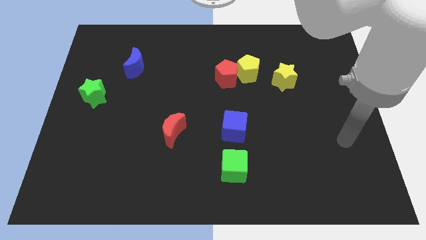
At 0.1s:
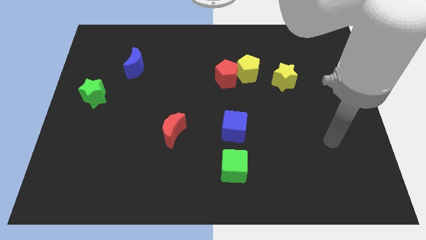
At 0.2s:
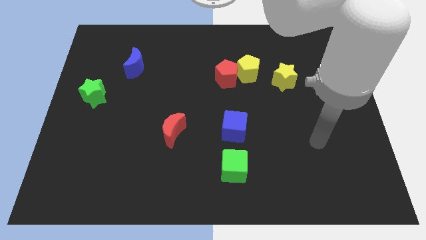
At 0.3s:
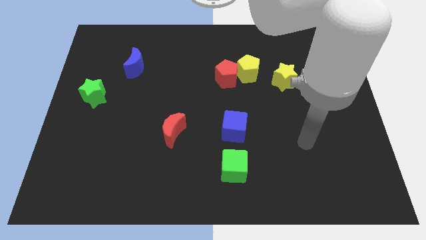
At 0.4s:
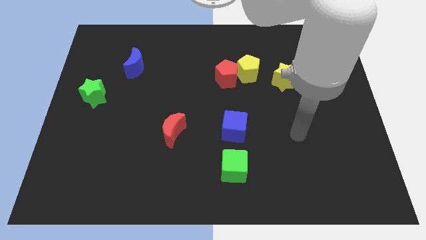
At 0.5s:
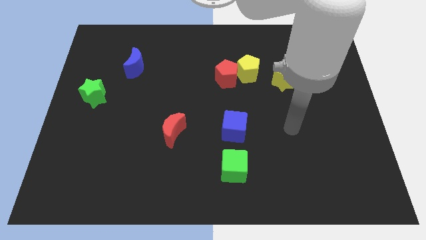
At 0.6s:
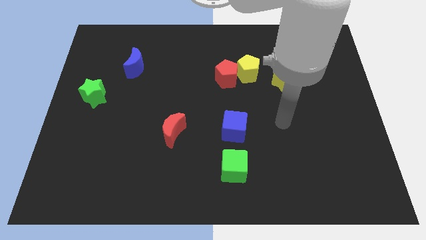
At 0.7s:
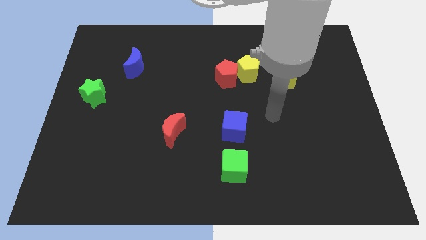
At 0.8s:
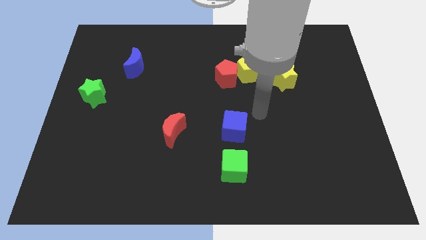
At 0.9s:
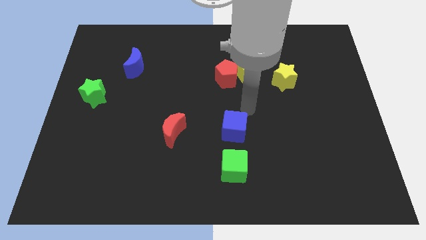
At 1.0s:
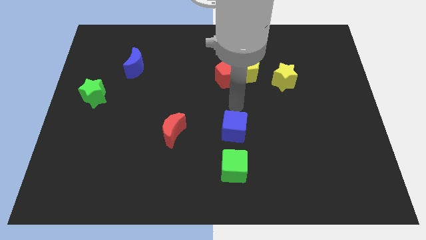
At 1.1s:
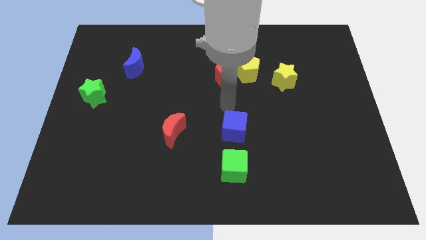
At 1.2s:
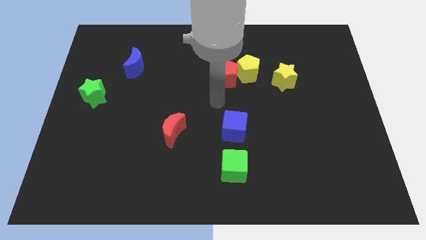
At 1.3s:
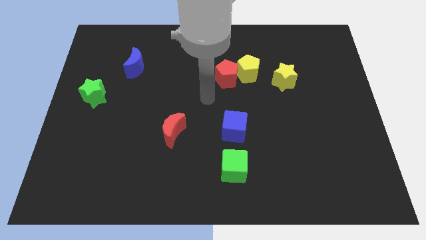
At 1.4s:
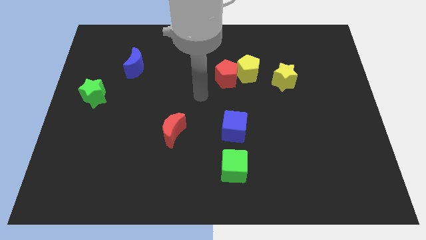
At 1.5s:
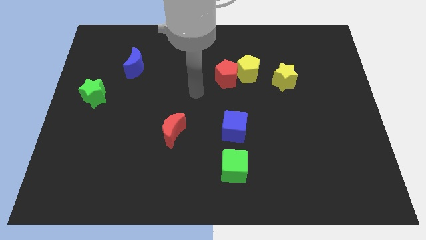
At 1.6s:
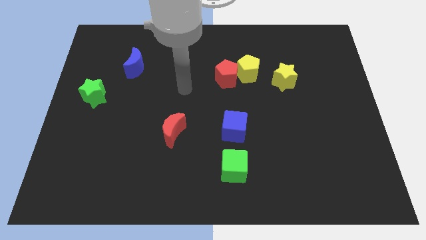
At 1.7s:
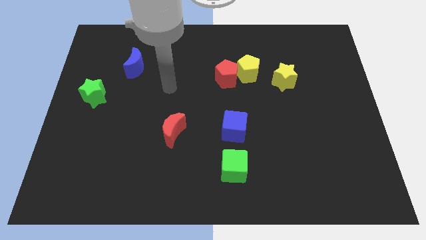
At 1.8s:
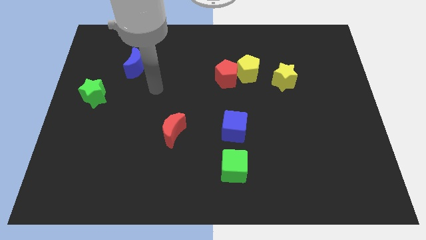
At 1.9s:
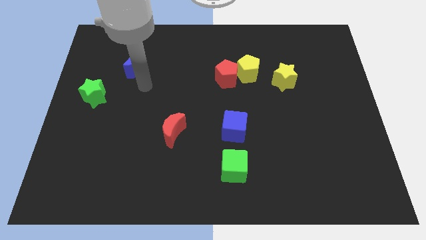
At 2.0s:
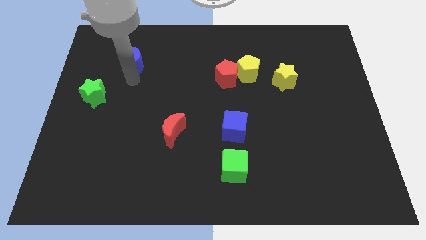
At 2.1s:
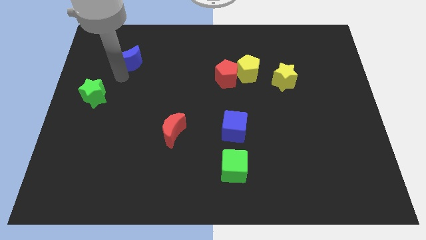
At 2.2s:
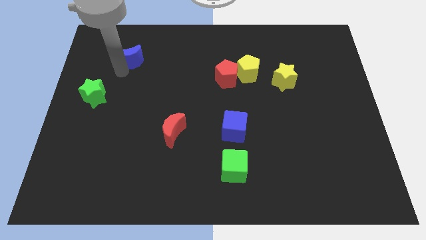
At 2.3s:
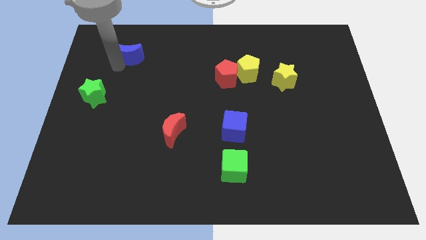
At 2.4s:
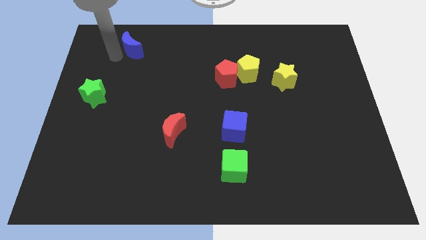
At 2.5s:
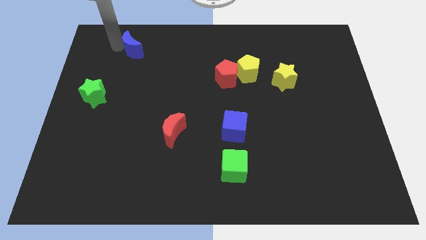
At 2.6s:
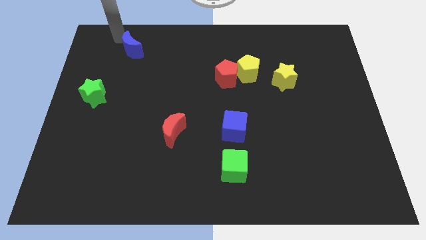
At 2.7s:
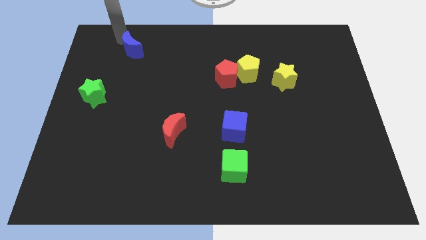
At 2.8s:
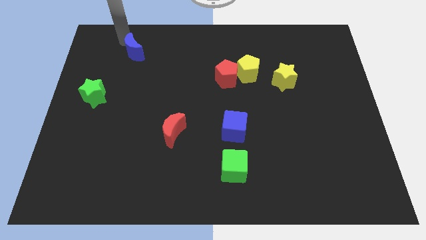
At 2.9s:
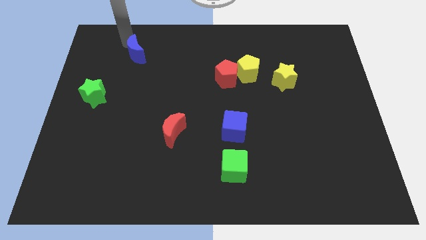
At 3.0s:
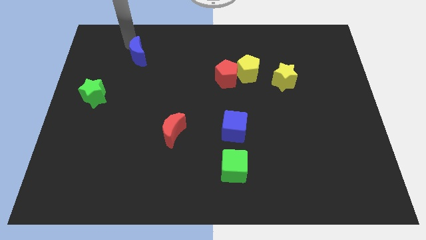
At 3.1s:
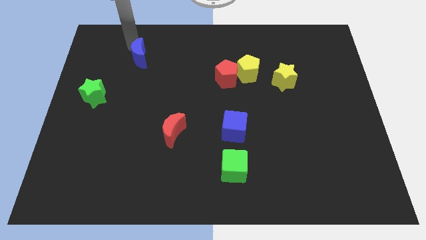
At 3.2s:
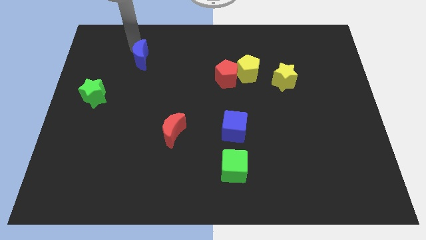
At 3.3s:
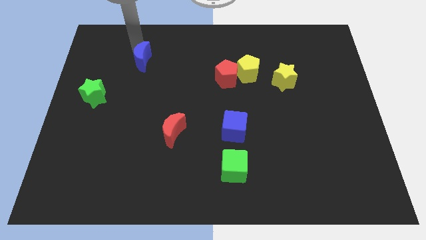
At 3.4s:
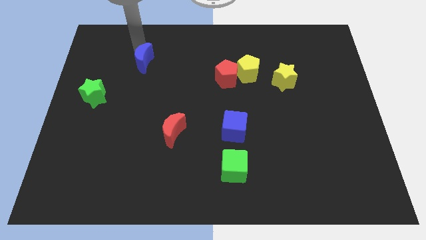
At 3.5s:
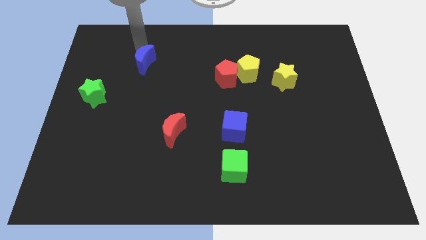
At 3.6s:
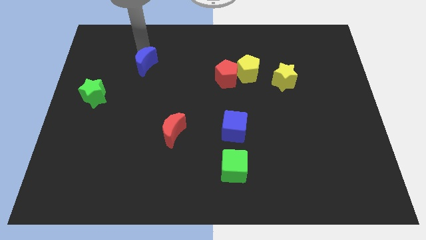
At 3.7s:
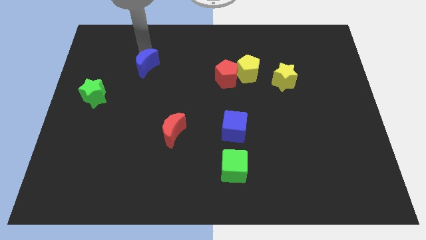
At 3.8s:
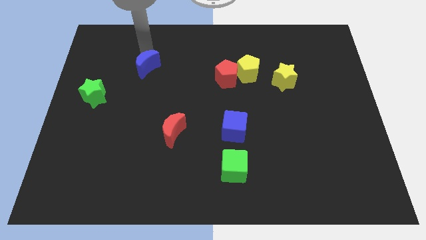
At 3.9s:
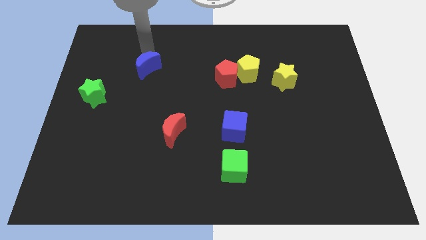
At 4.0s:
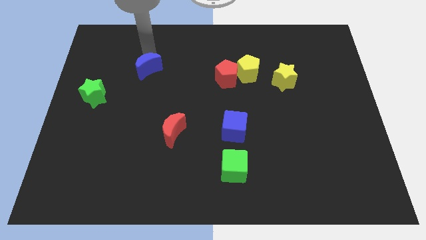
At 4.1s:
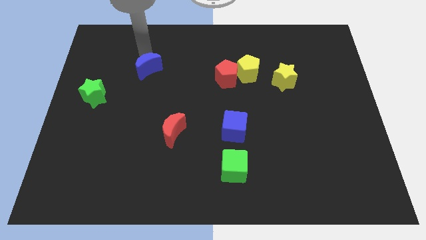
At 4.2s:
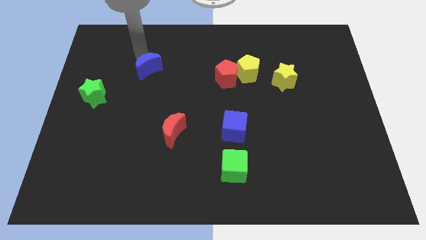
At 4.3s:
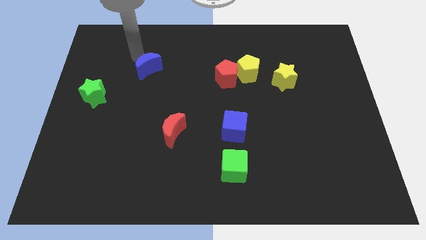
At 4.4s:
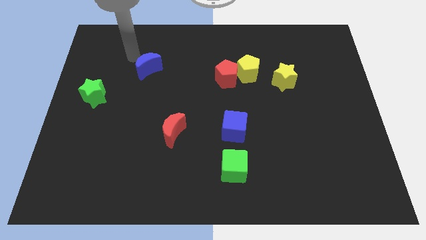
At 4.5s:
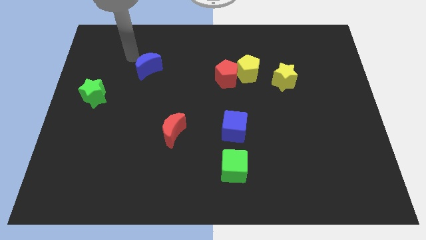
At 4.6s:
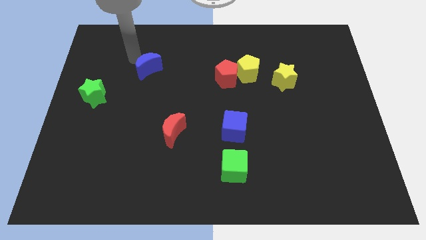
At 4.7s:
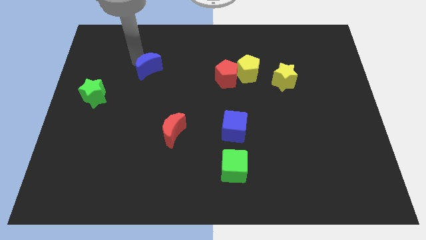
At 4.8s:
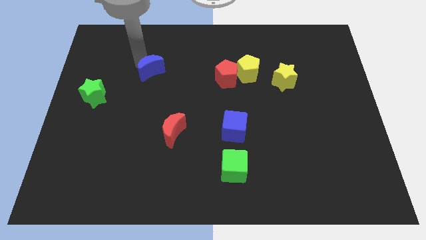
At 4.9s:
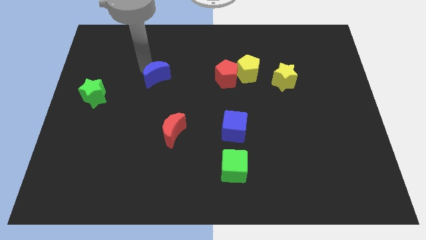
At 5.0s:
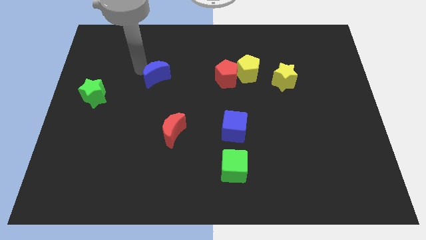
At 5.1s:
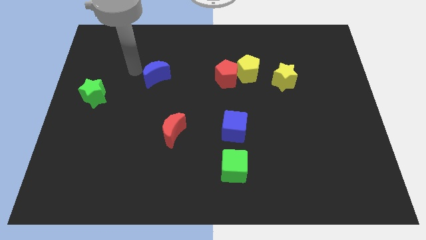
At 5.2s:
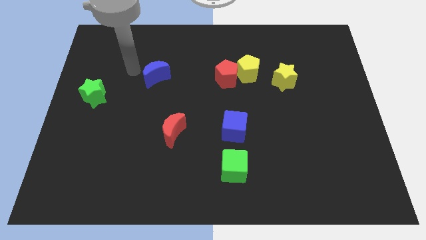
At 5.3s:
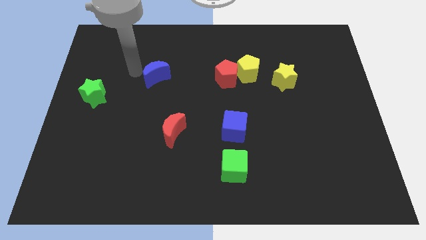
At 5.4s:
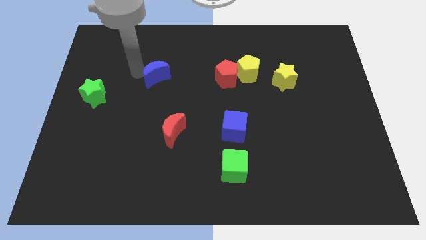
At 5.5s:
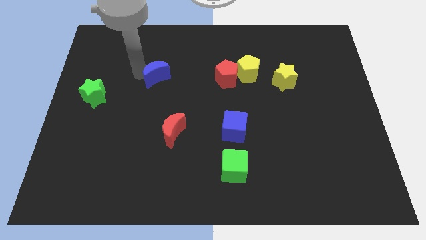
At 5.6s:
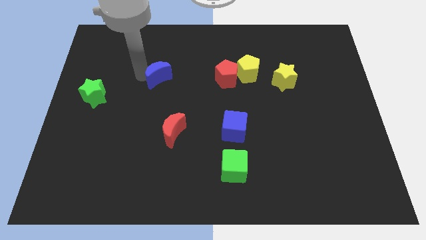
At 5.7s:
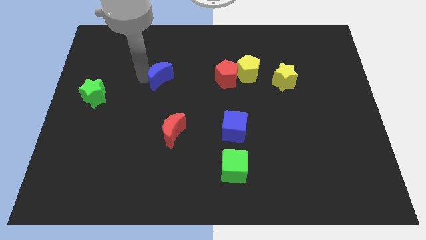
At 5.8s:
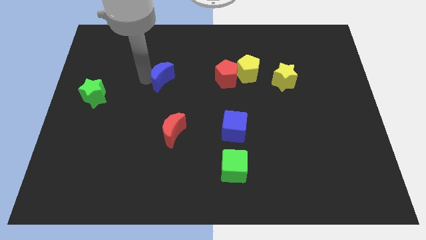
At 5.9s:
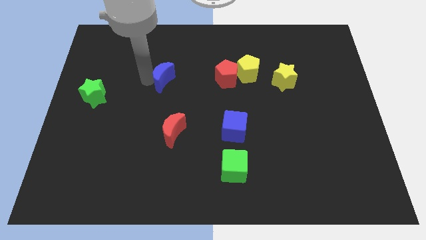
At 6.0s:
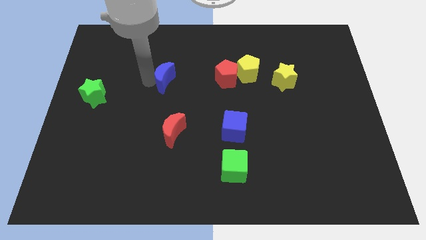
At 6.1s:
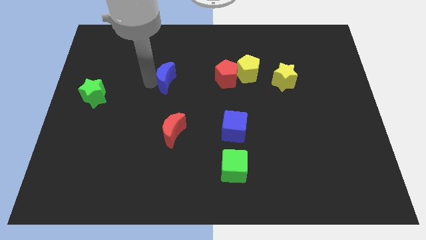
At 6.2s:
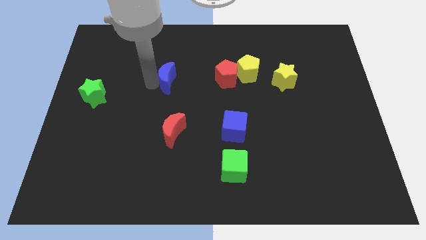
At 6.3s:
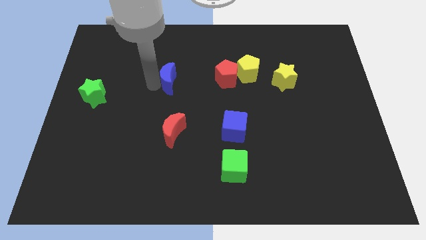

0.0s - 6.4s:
slide the blue moon to the center
